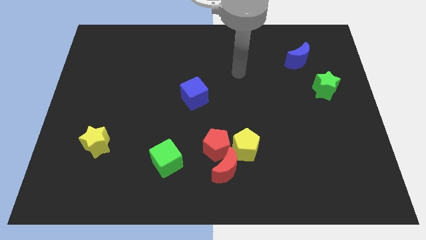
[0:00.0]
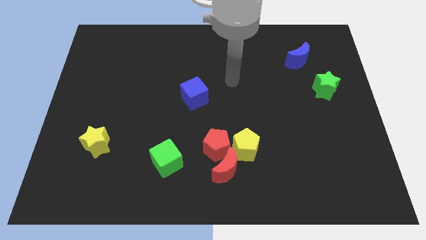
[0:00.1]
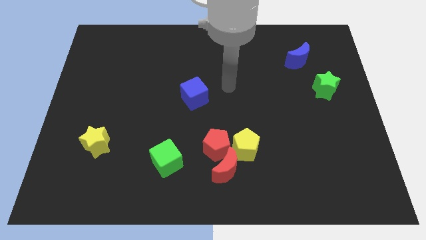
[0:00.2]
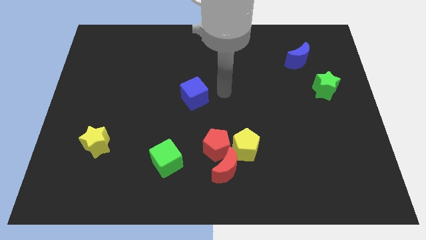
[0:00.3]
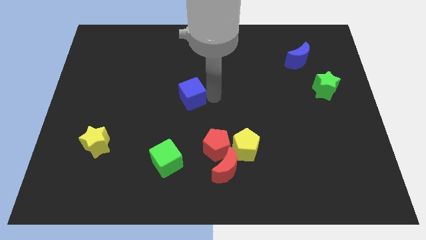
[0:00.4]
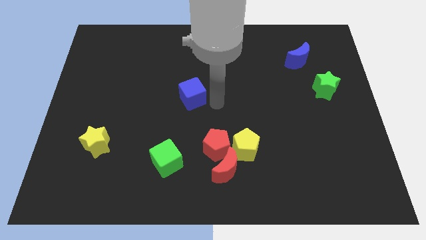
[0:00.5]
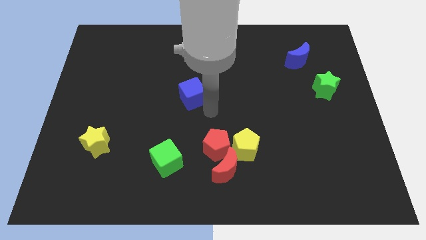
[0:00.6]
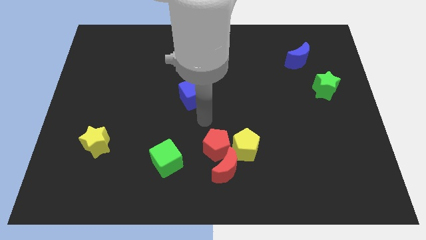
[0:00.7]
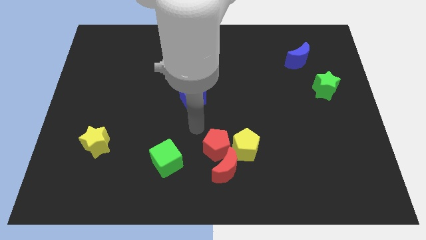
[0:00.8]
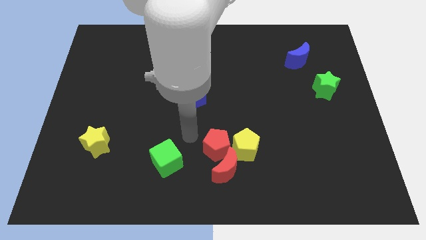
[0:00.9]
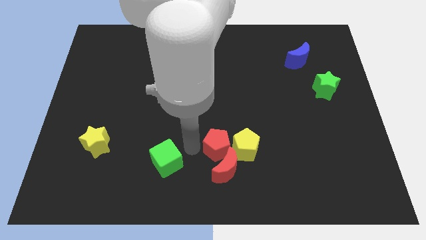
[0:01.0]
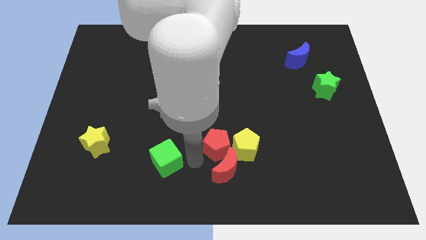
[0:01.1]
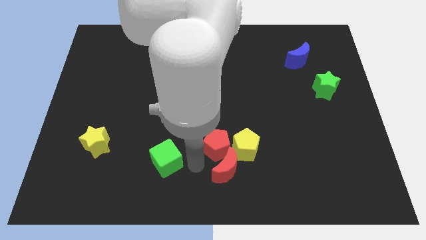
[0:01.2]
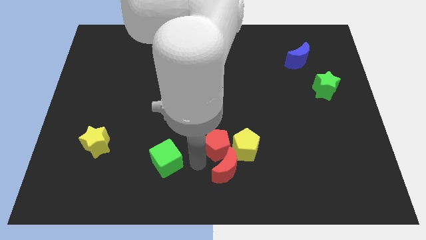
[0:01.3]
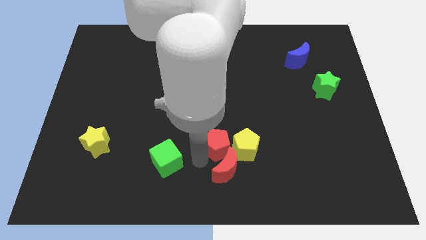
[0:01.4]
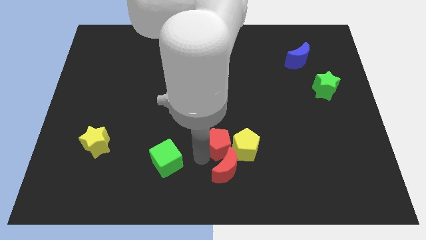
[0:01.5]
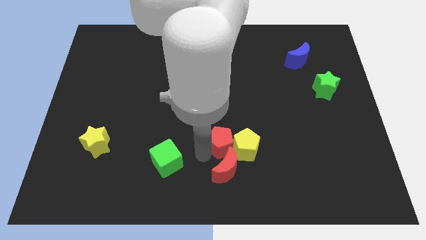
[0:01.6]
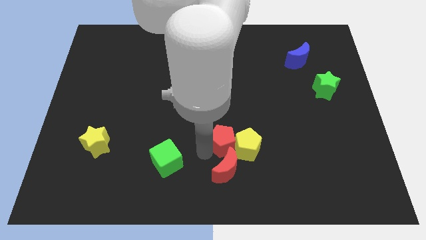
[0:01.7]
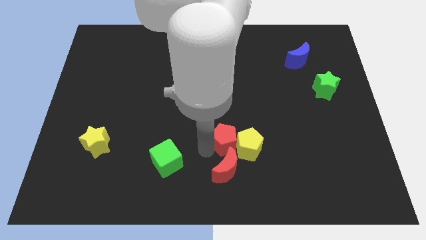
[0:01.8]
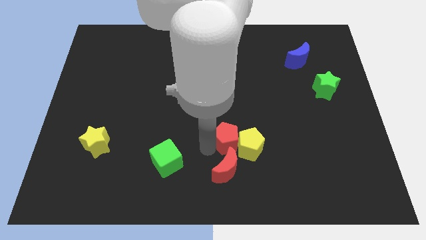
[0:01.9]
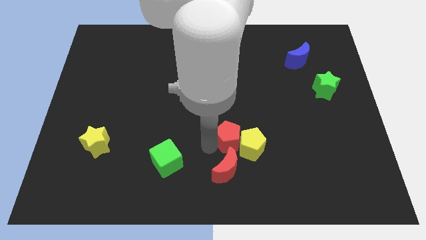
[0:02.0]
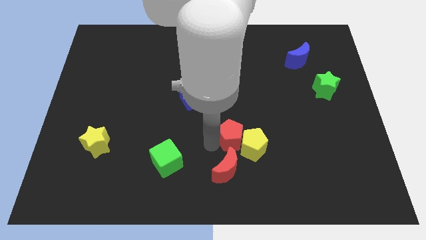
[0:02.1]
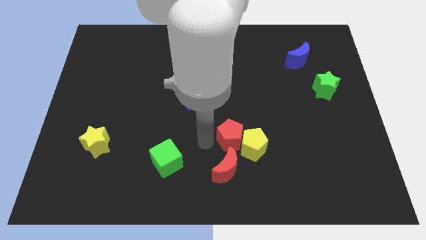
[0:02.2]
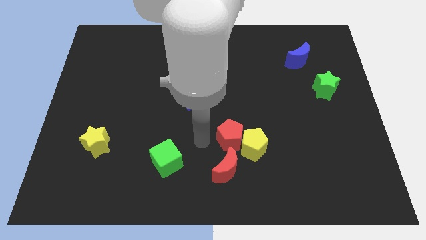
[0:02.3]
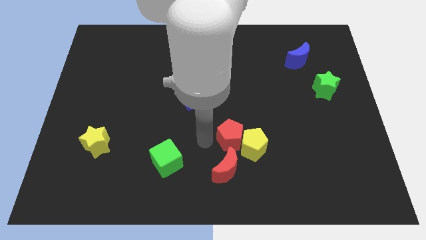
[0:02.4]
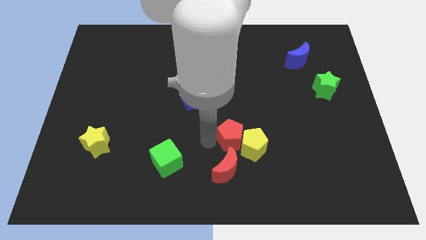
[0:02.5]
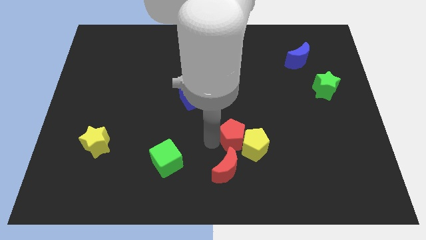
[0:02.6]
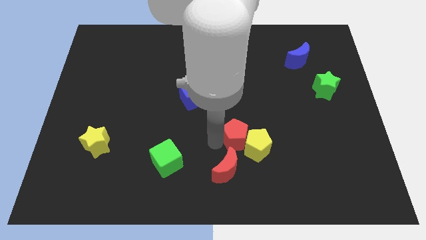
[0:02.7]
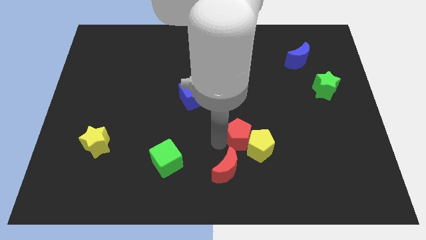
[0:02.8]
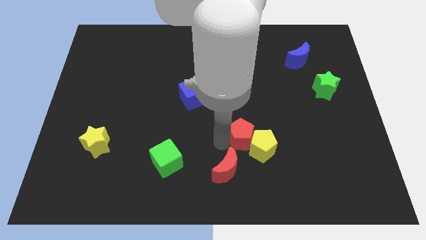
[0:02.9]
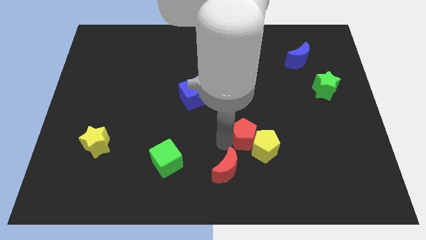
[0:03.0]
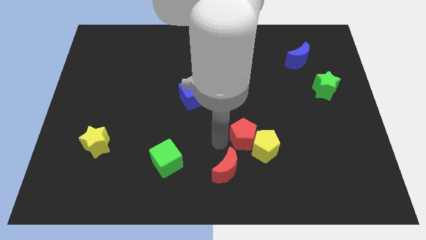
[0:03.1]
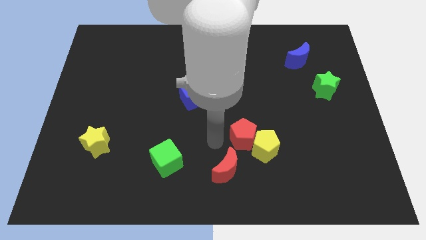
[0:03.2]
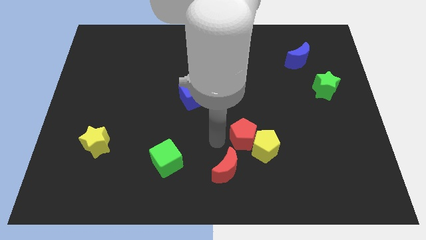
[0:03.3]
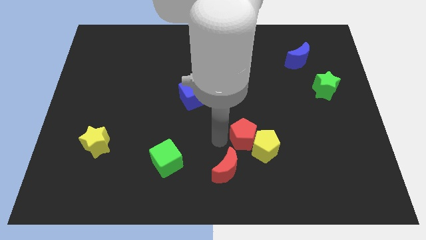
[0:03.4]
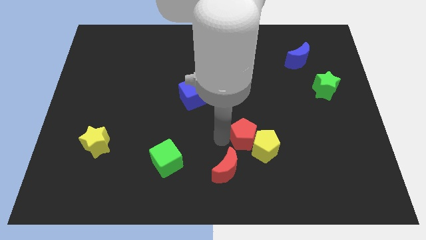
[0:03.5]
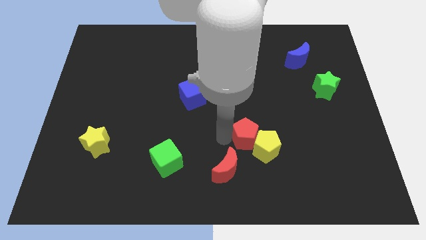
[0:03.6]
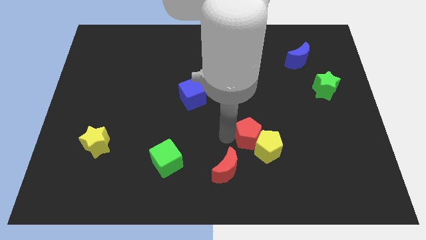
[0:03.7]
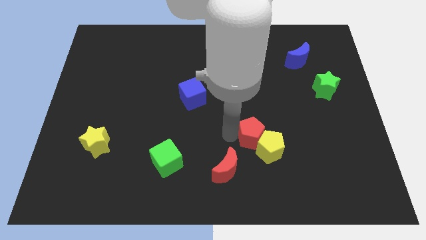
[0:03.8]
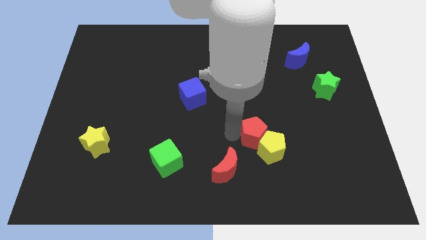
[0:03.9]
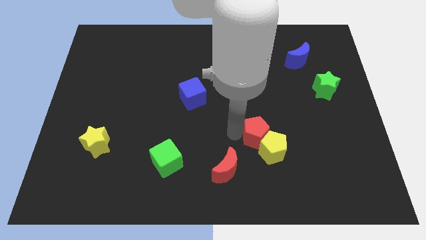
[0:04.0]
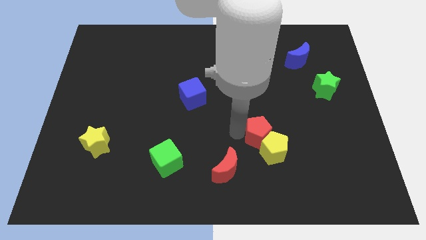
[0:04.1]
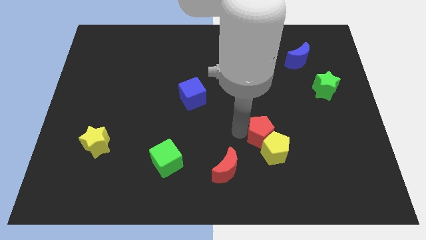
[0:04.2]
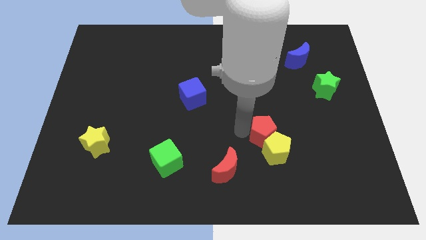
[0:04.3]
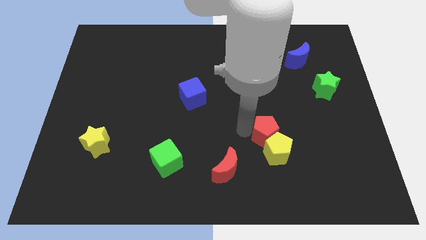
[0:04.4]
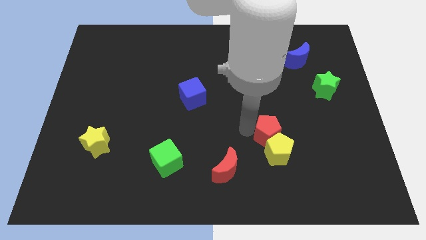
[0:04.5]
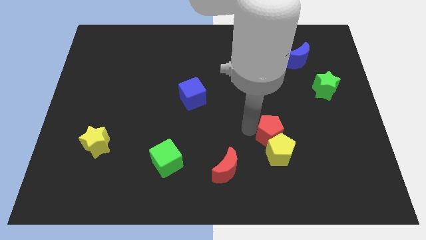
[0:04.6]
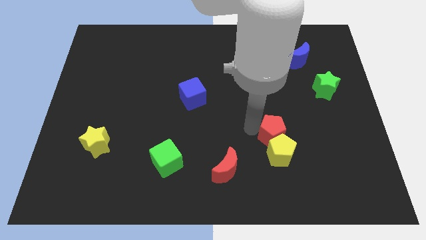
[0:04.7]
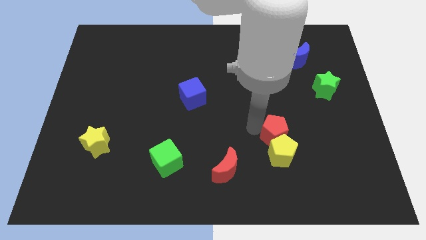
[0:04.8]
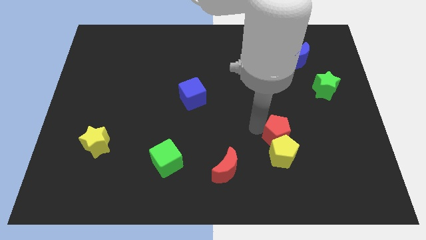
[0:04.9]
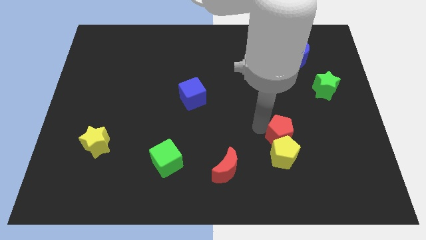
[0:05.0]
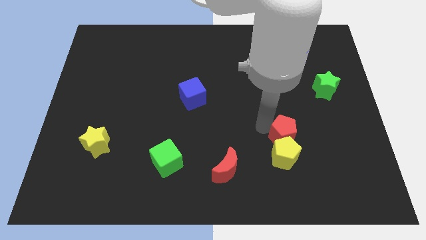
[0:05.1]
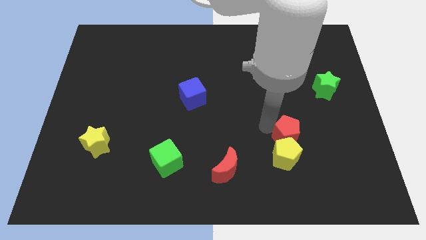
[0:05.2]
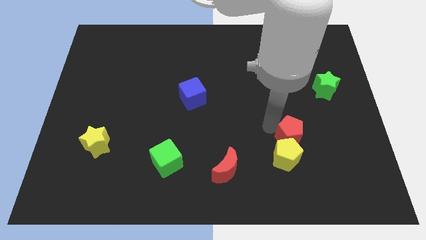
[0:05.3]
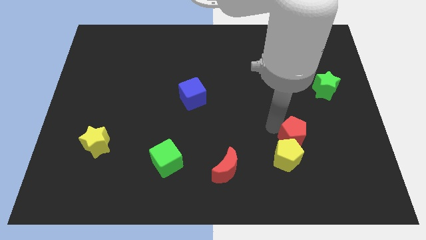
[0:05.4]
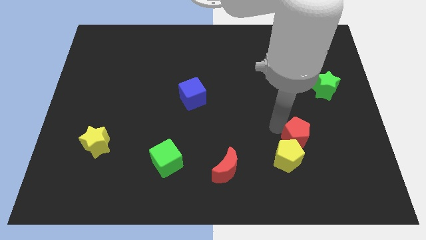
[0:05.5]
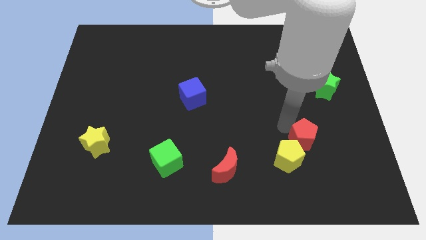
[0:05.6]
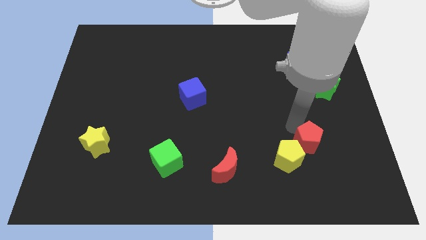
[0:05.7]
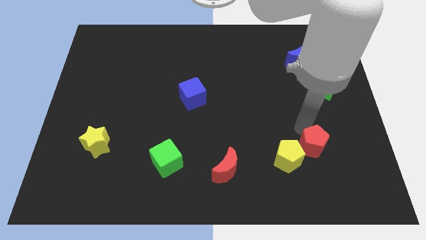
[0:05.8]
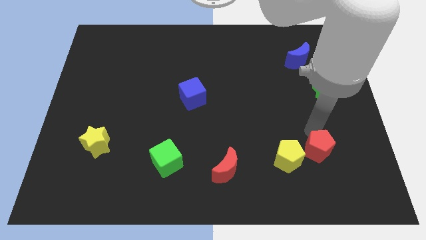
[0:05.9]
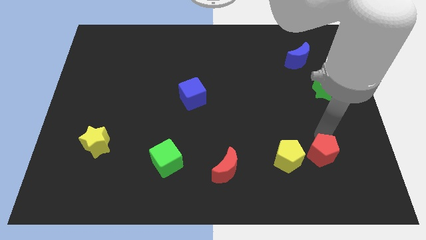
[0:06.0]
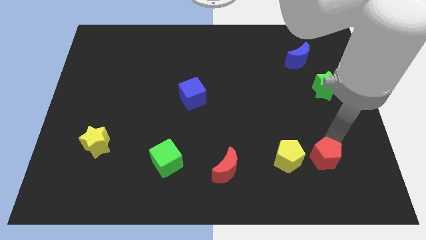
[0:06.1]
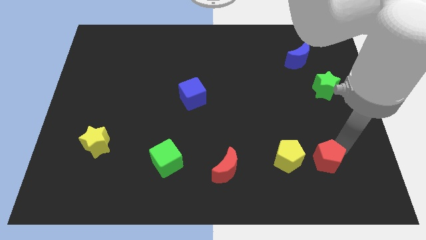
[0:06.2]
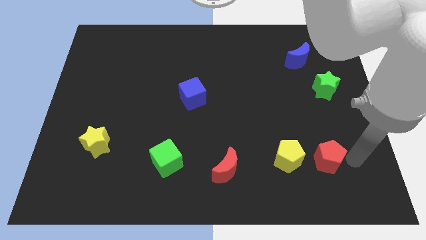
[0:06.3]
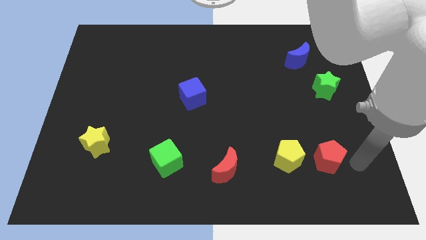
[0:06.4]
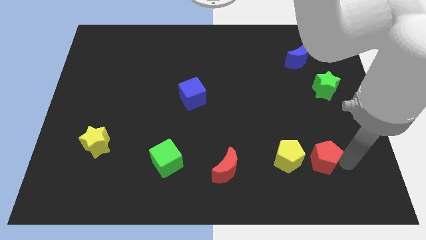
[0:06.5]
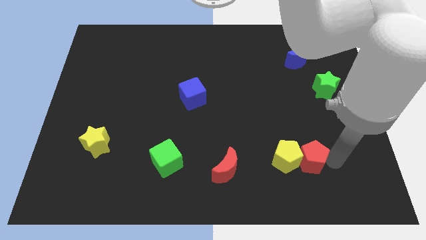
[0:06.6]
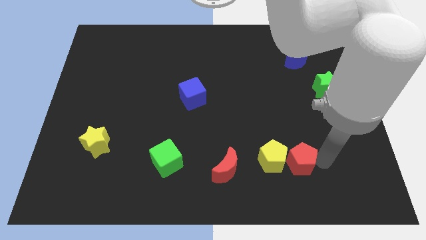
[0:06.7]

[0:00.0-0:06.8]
slide the red pentagon diagonally down and to the right of the yellow pentagon
